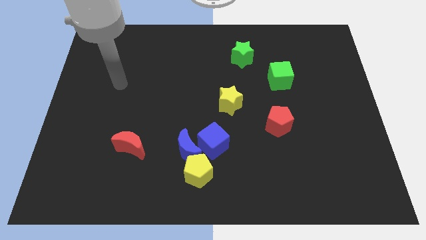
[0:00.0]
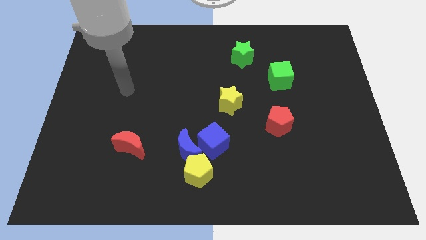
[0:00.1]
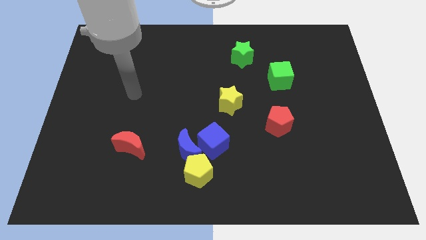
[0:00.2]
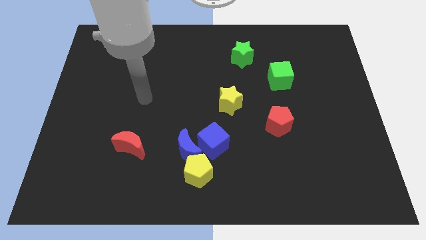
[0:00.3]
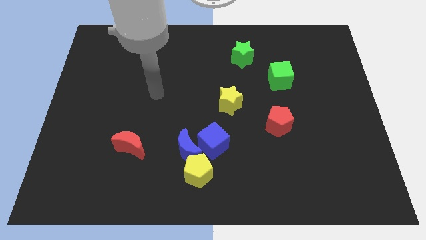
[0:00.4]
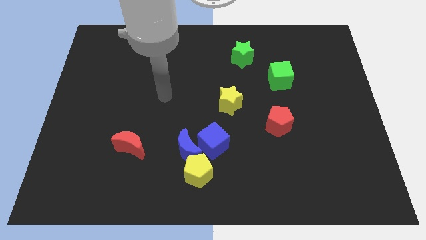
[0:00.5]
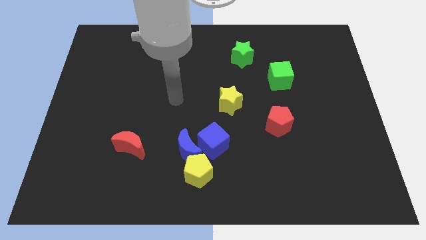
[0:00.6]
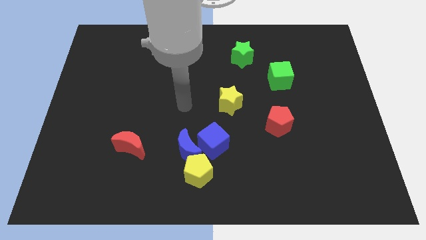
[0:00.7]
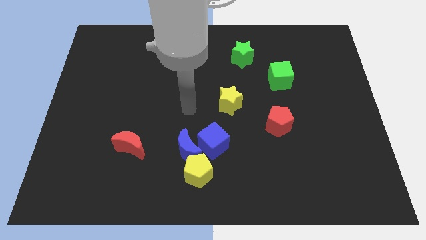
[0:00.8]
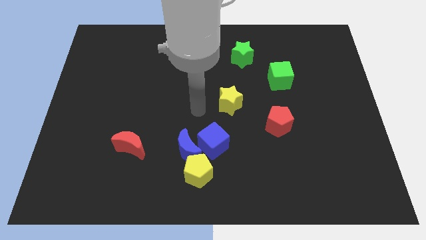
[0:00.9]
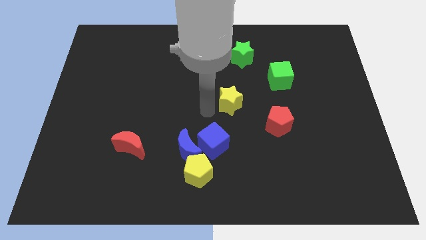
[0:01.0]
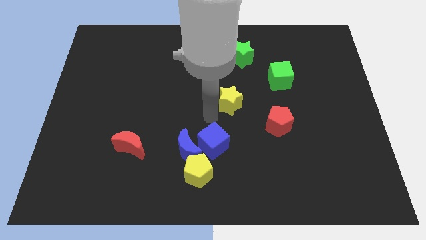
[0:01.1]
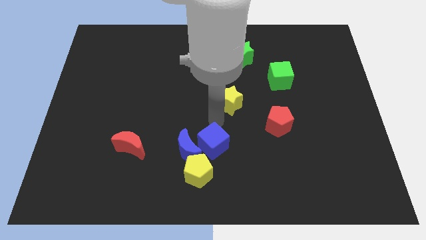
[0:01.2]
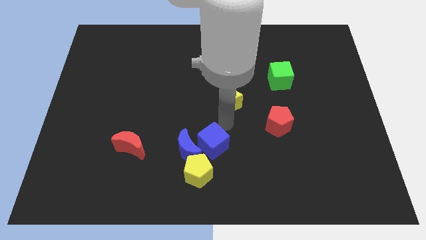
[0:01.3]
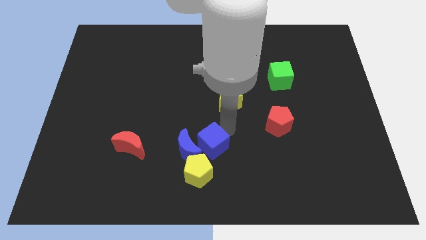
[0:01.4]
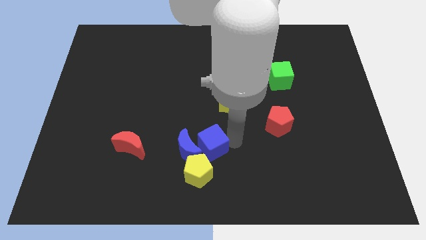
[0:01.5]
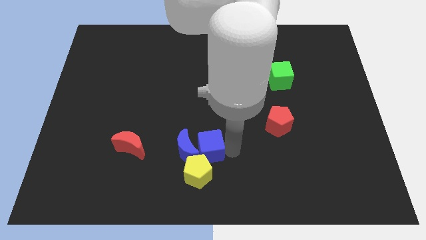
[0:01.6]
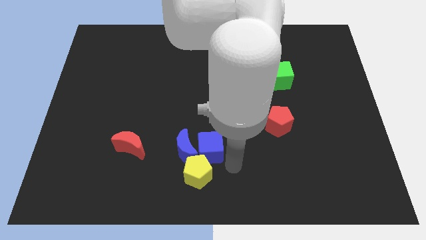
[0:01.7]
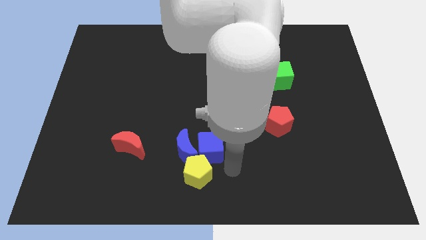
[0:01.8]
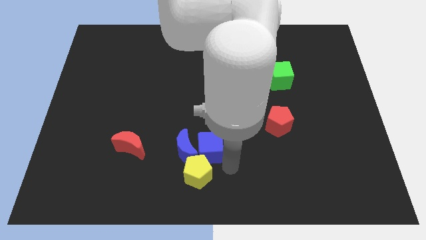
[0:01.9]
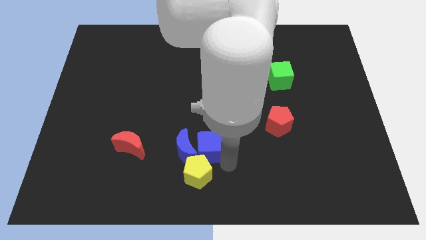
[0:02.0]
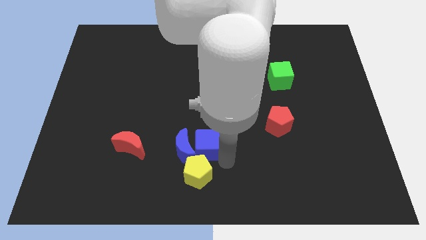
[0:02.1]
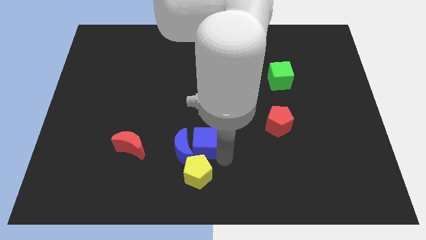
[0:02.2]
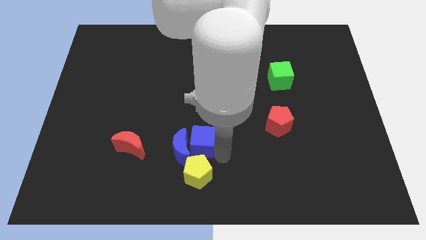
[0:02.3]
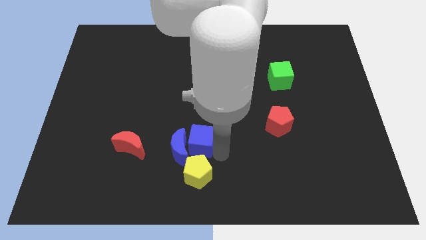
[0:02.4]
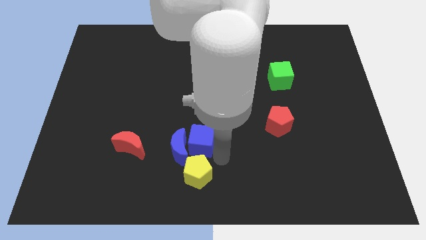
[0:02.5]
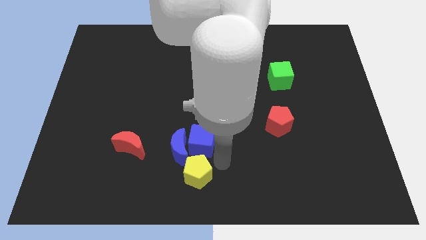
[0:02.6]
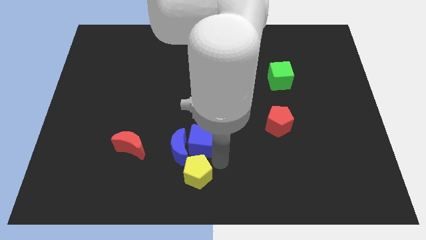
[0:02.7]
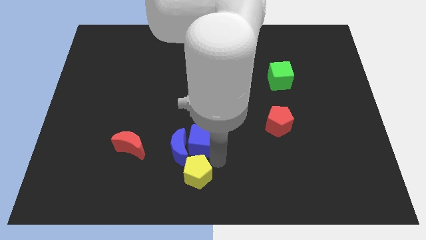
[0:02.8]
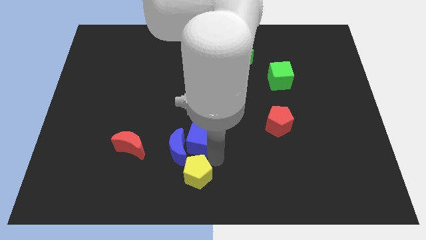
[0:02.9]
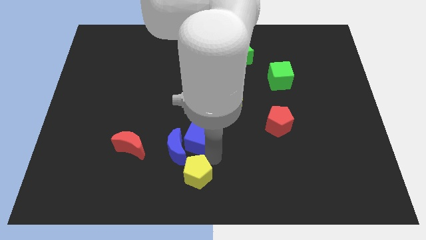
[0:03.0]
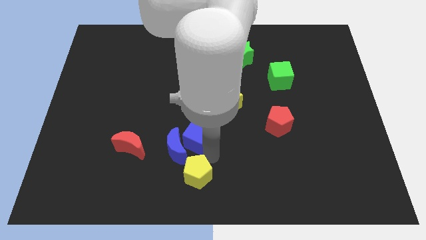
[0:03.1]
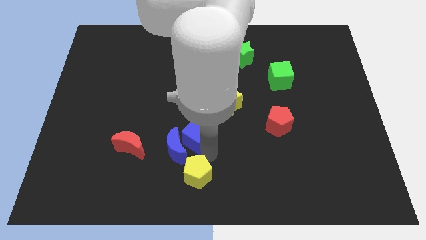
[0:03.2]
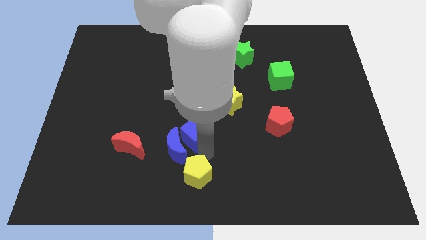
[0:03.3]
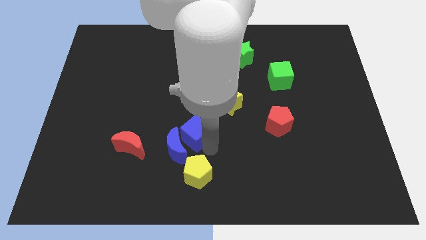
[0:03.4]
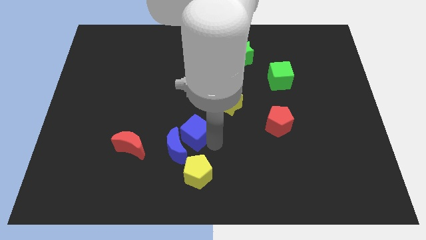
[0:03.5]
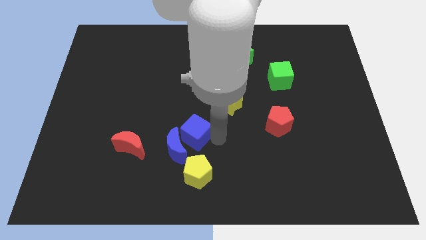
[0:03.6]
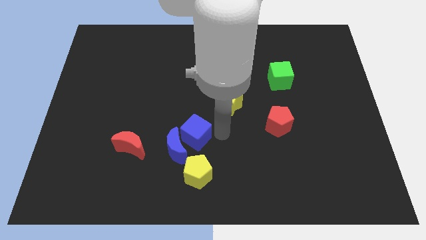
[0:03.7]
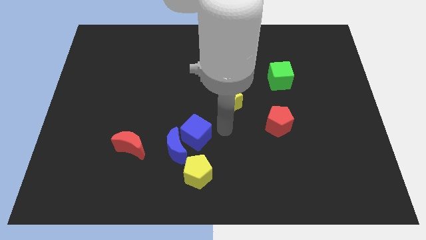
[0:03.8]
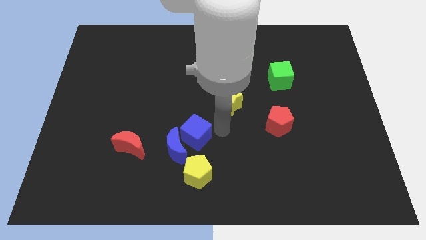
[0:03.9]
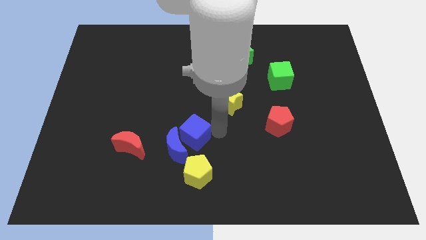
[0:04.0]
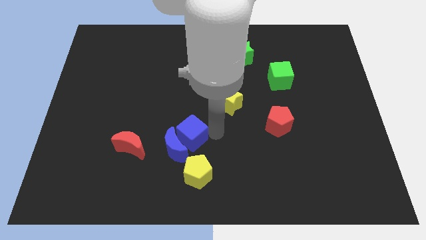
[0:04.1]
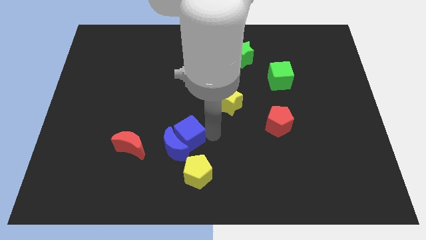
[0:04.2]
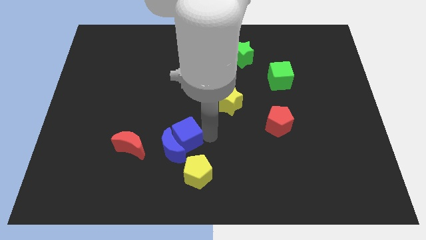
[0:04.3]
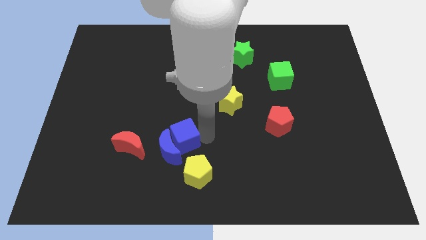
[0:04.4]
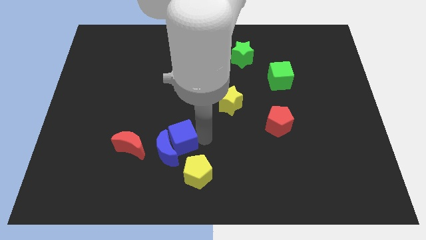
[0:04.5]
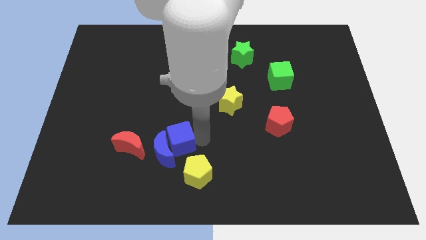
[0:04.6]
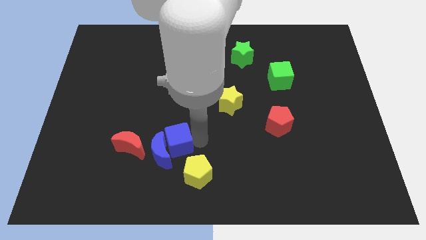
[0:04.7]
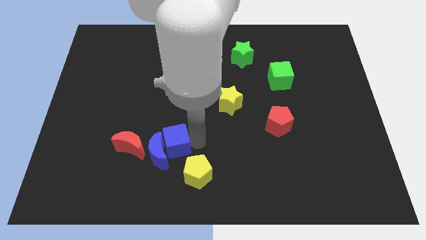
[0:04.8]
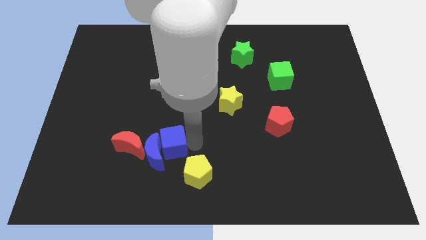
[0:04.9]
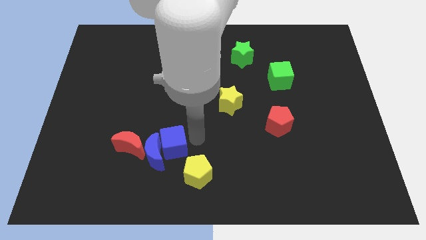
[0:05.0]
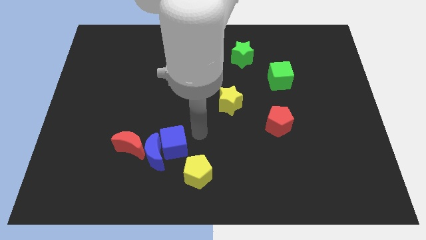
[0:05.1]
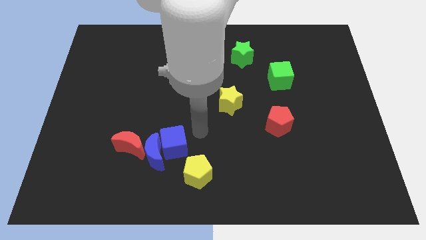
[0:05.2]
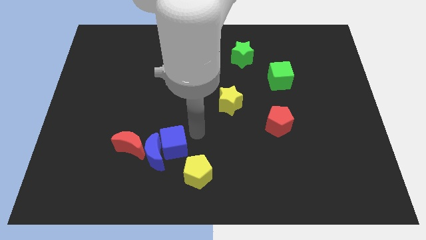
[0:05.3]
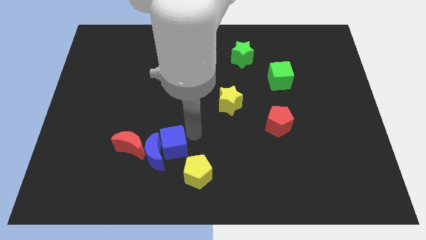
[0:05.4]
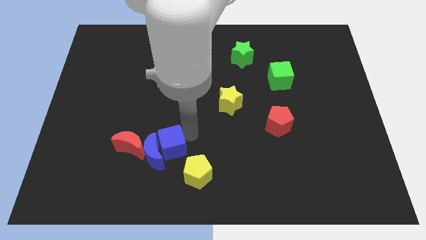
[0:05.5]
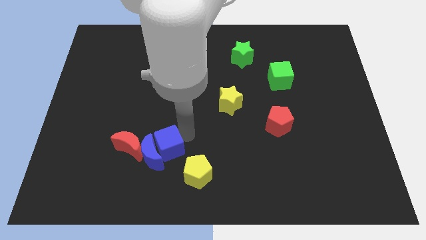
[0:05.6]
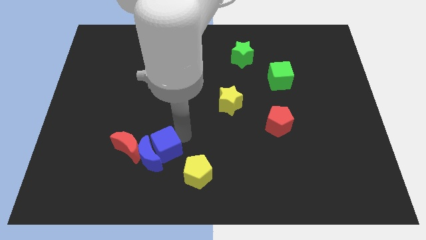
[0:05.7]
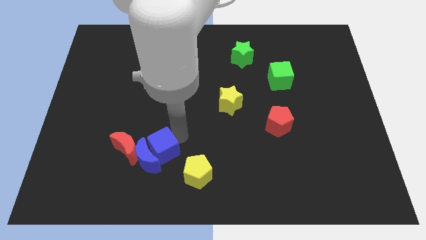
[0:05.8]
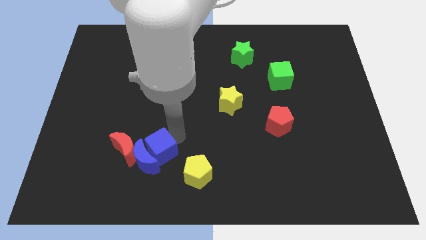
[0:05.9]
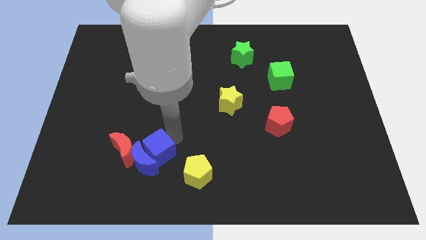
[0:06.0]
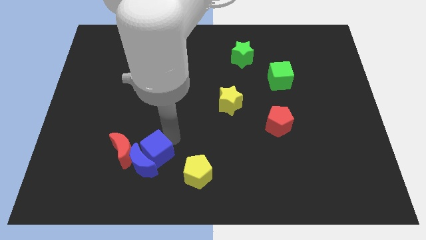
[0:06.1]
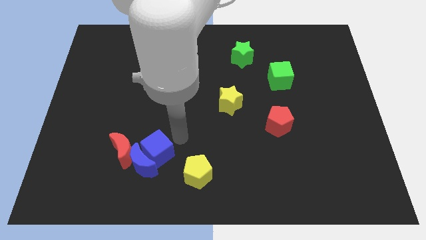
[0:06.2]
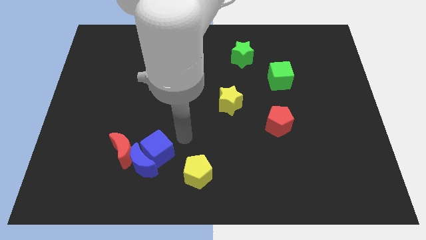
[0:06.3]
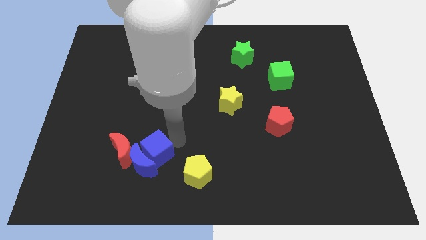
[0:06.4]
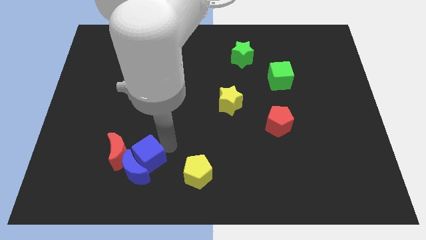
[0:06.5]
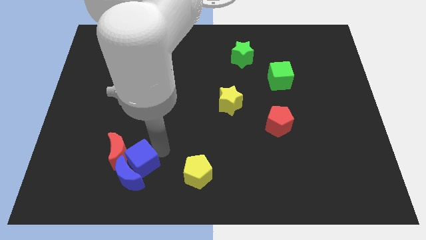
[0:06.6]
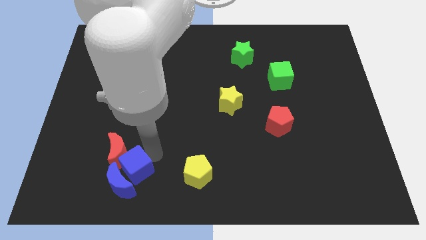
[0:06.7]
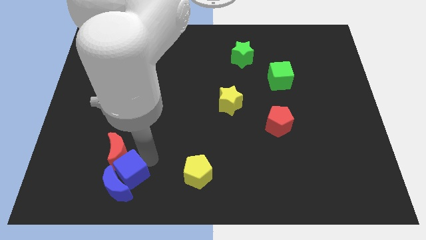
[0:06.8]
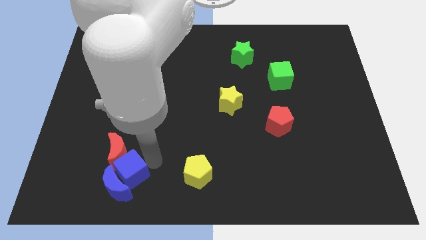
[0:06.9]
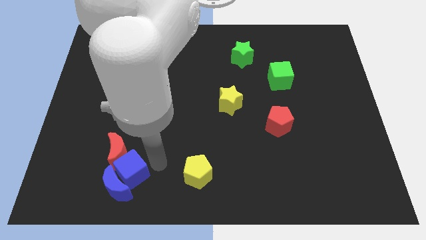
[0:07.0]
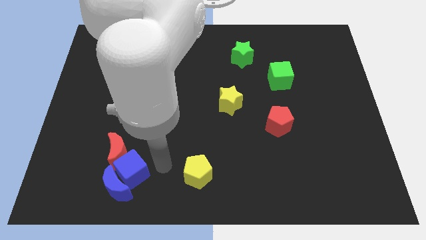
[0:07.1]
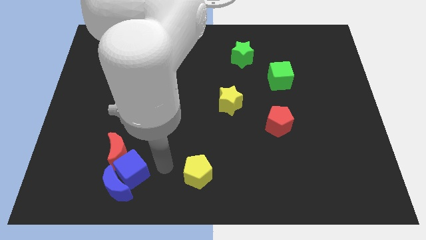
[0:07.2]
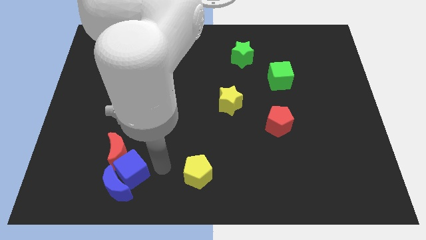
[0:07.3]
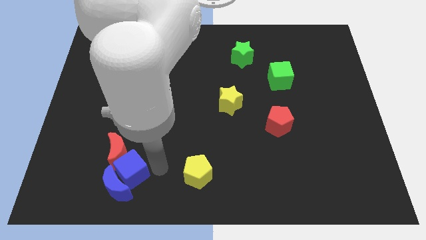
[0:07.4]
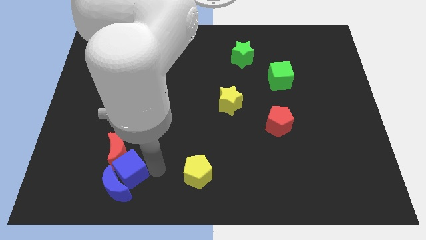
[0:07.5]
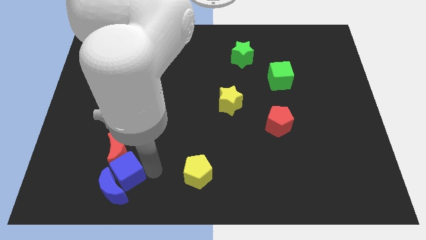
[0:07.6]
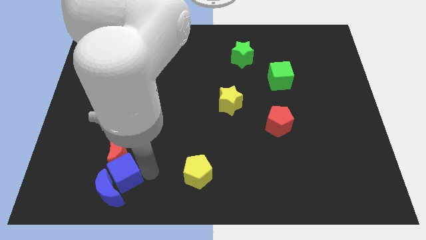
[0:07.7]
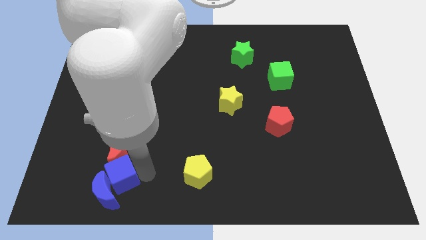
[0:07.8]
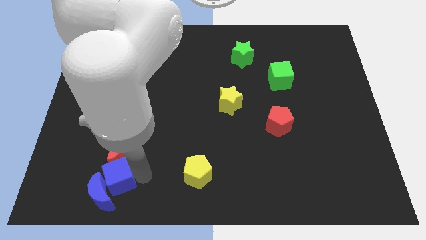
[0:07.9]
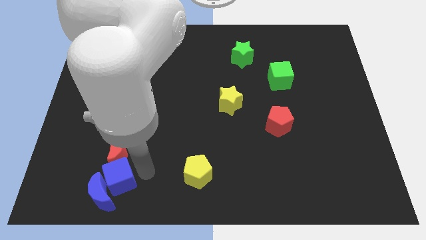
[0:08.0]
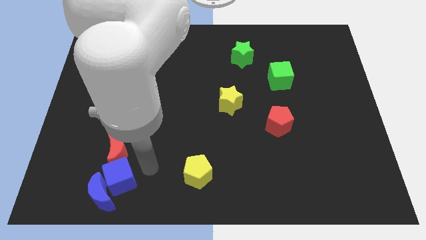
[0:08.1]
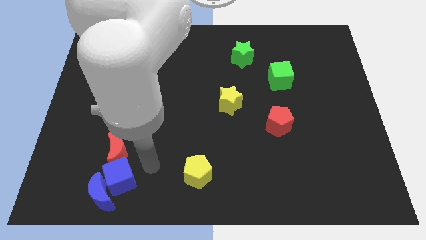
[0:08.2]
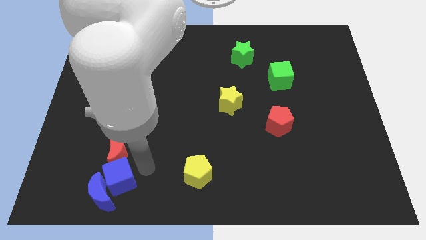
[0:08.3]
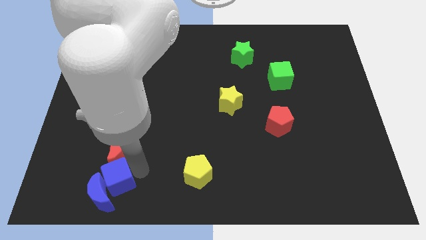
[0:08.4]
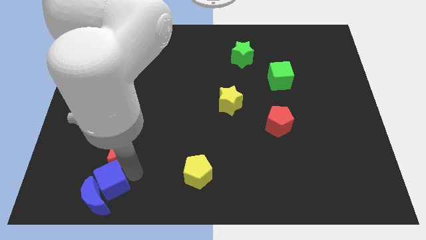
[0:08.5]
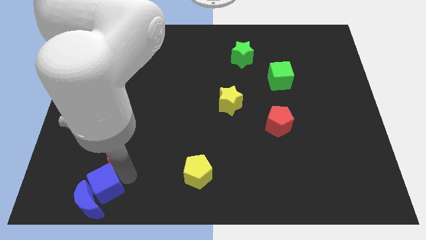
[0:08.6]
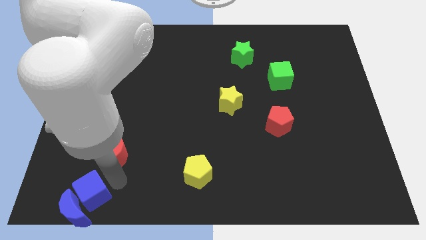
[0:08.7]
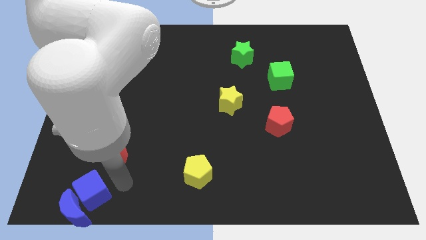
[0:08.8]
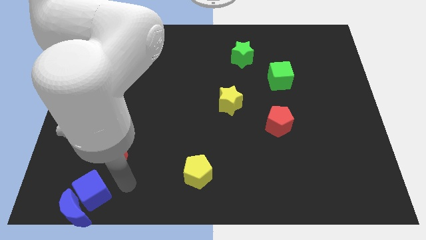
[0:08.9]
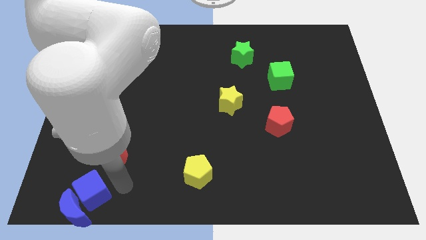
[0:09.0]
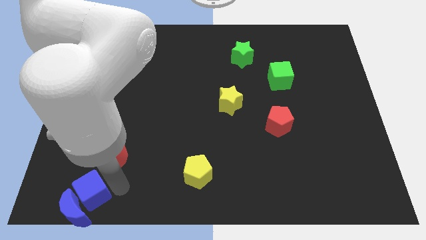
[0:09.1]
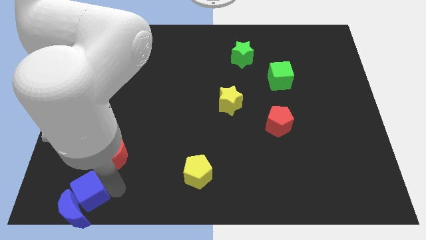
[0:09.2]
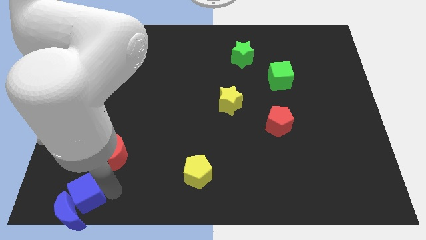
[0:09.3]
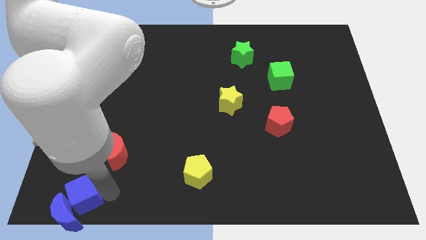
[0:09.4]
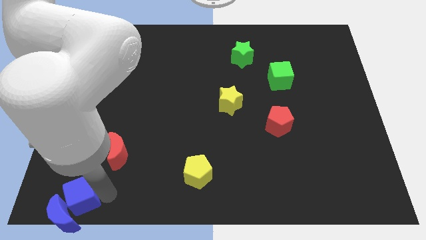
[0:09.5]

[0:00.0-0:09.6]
put the blue cube to the bottom left corner
